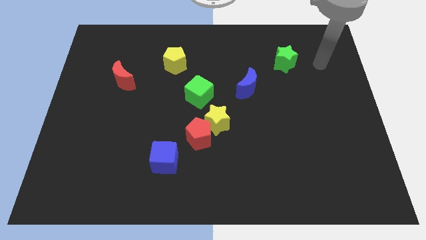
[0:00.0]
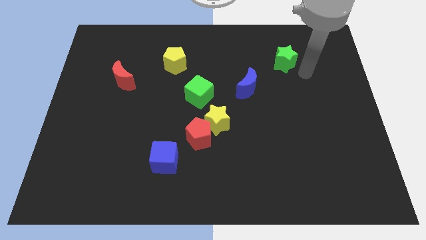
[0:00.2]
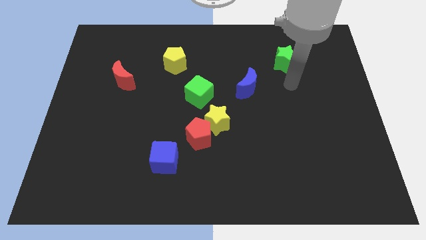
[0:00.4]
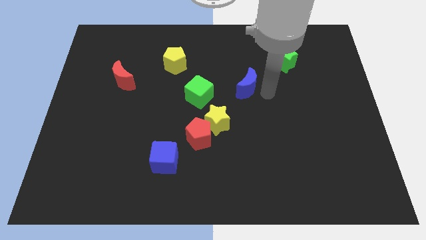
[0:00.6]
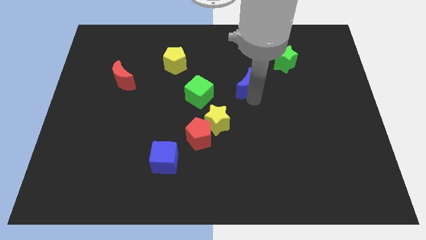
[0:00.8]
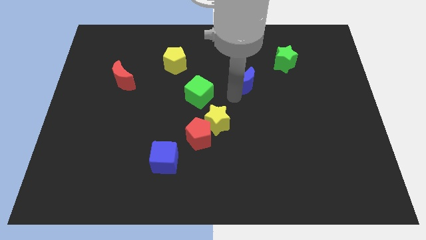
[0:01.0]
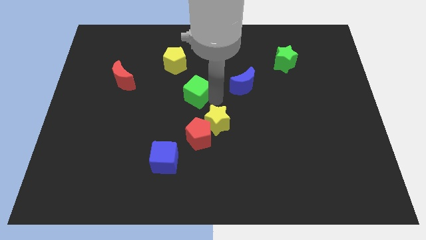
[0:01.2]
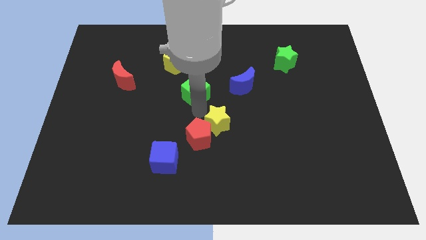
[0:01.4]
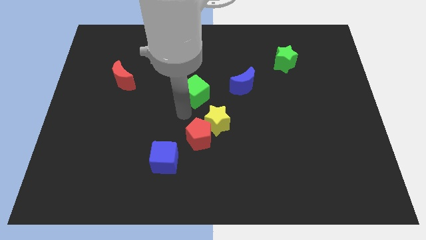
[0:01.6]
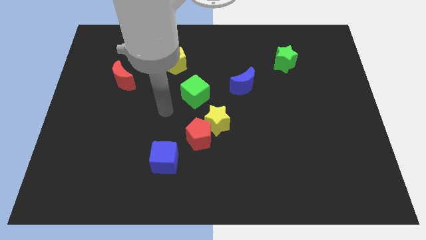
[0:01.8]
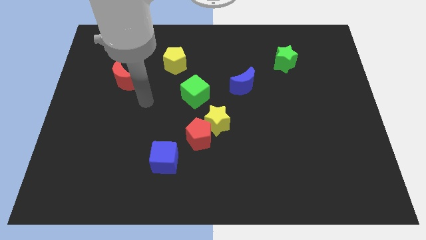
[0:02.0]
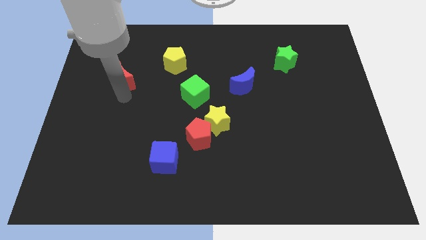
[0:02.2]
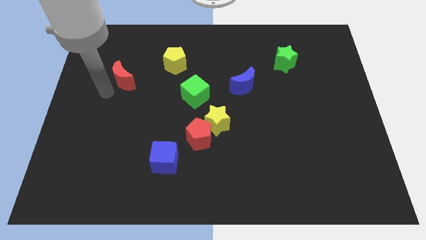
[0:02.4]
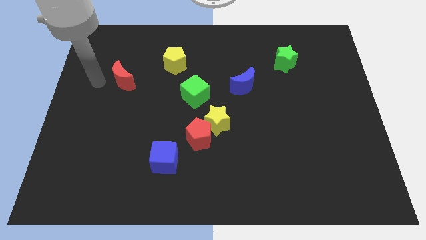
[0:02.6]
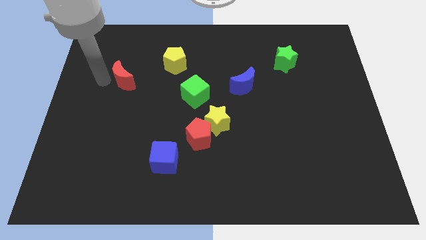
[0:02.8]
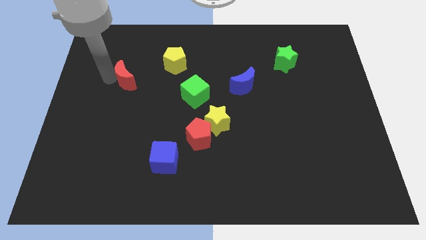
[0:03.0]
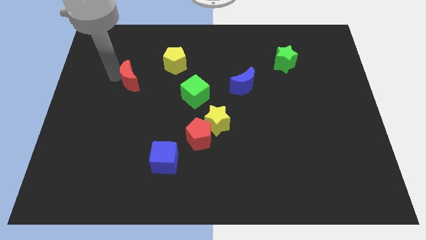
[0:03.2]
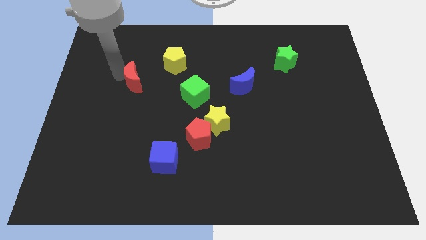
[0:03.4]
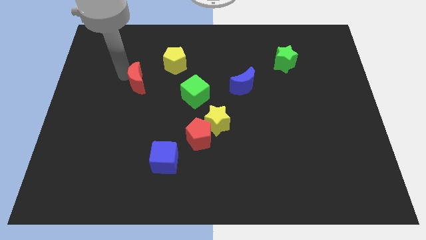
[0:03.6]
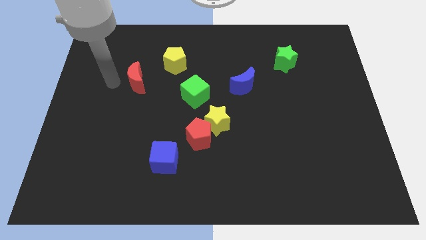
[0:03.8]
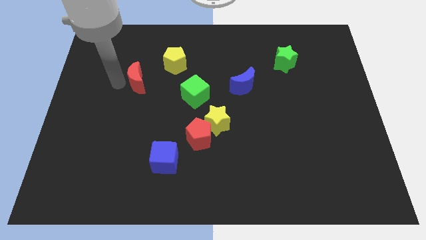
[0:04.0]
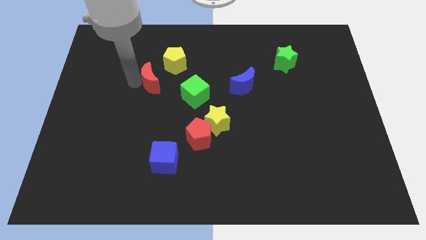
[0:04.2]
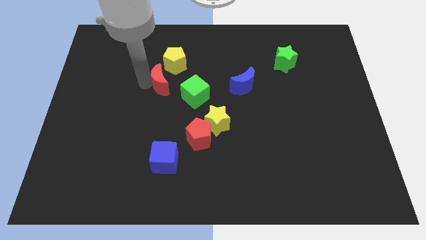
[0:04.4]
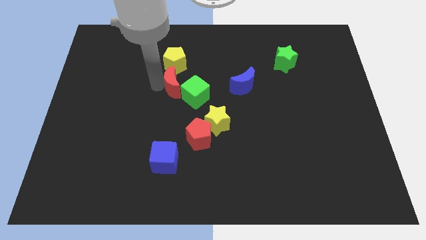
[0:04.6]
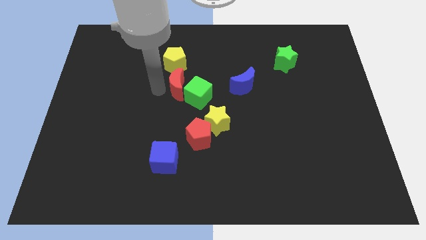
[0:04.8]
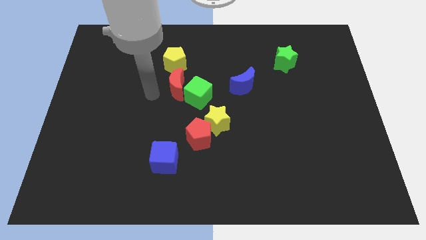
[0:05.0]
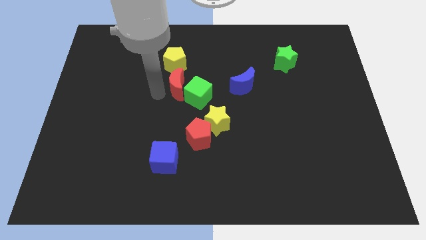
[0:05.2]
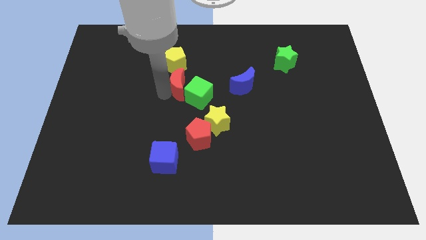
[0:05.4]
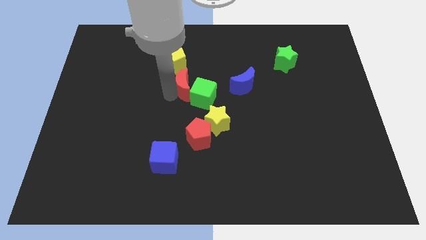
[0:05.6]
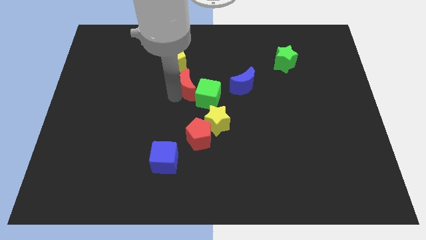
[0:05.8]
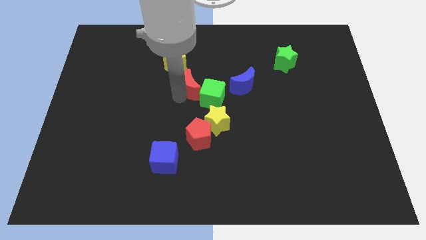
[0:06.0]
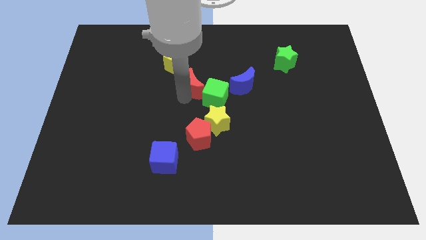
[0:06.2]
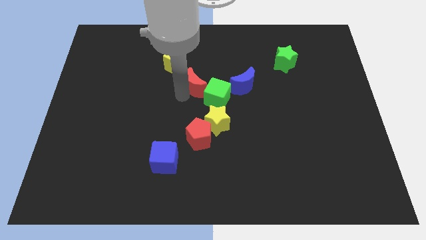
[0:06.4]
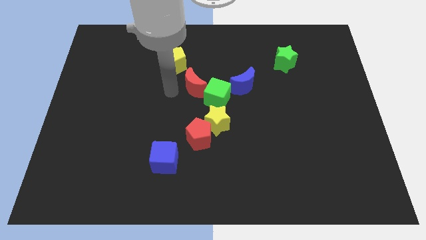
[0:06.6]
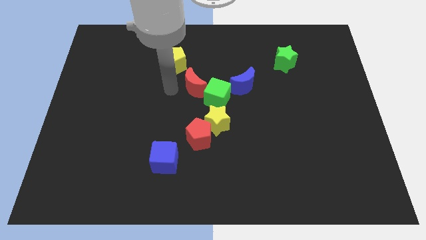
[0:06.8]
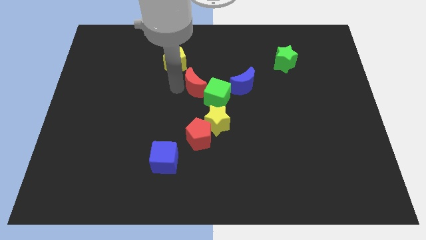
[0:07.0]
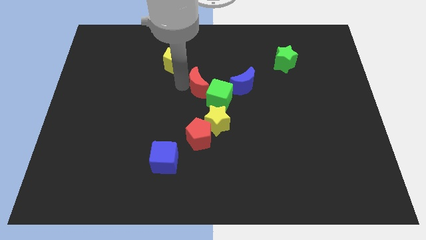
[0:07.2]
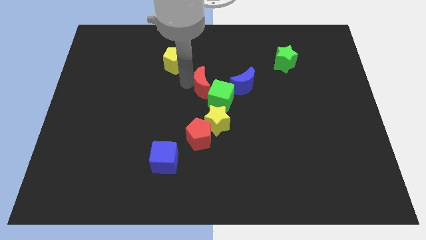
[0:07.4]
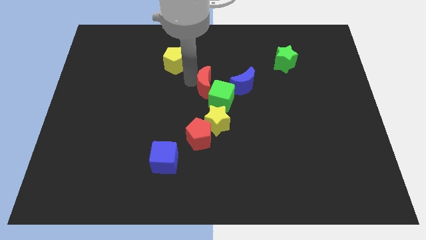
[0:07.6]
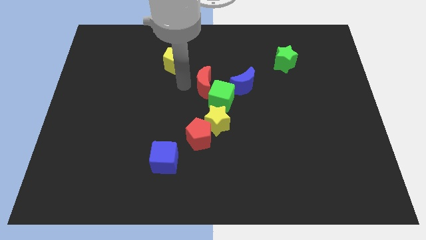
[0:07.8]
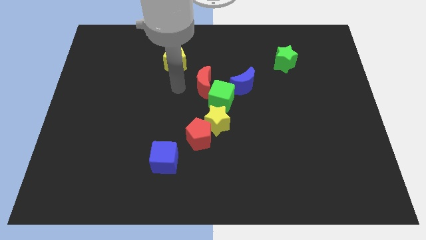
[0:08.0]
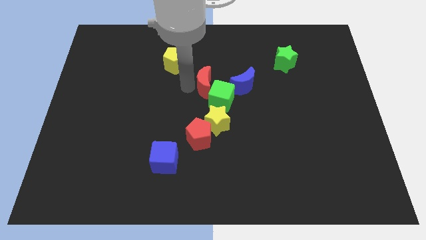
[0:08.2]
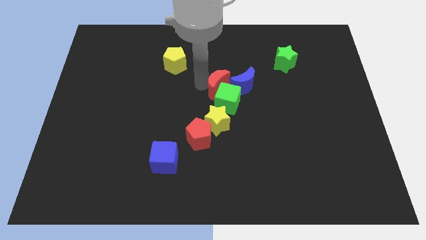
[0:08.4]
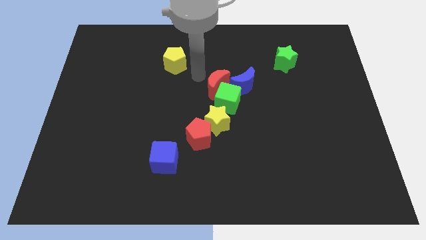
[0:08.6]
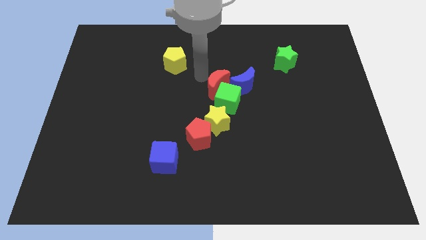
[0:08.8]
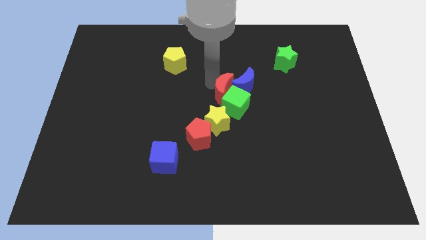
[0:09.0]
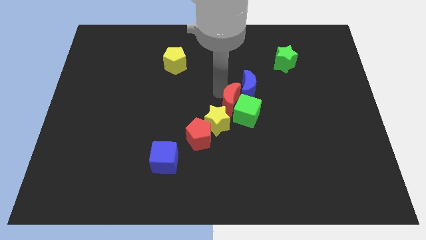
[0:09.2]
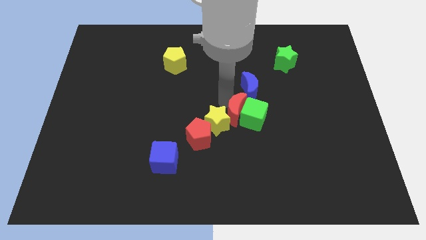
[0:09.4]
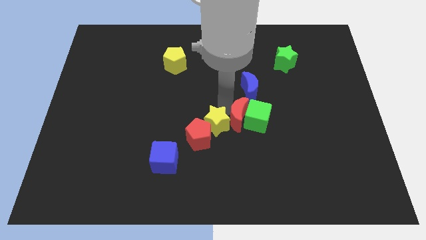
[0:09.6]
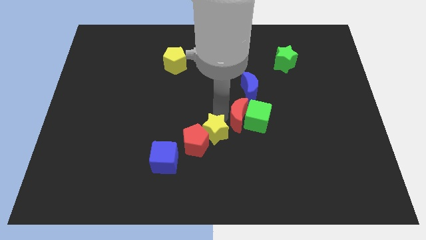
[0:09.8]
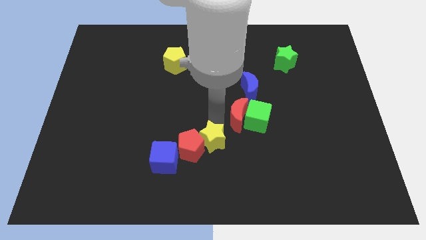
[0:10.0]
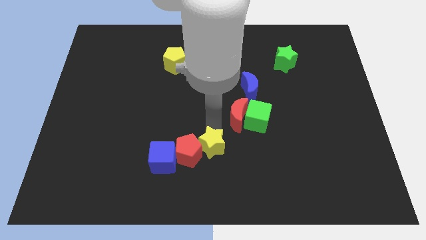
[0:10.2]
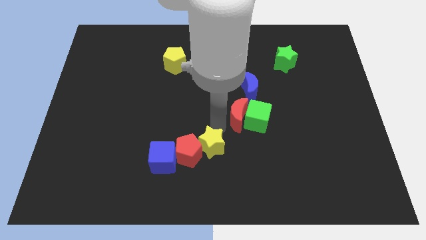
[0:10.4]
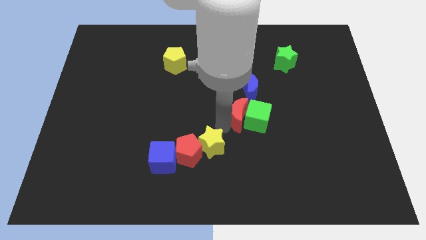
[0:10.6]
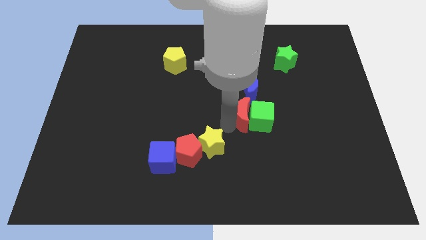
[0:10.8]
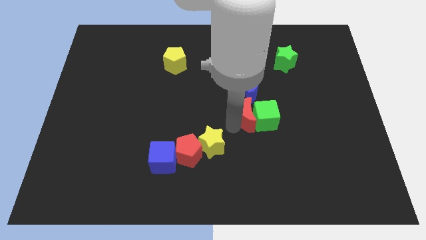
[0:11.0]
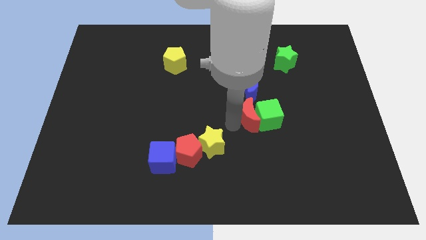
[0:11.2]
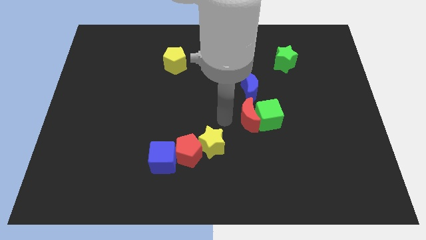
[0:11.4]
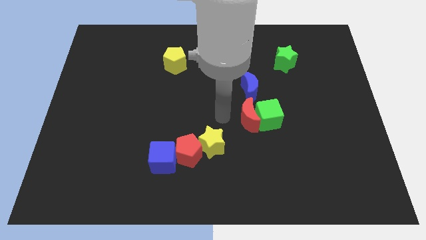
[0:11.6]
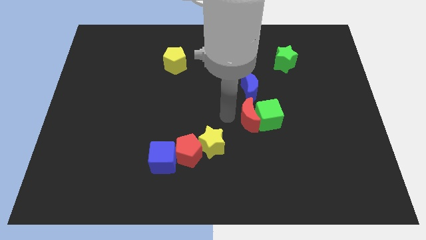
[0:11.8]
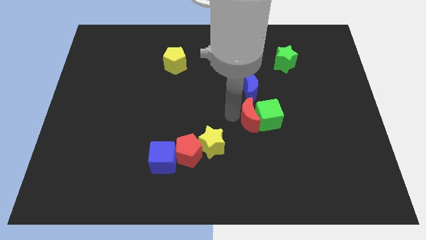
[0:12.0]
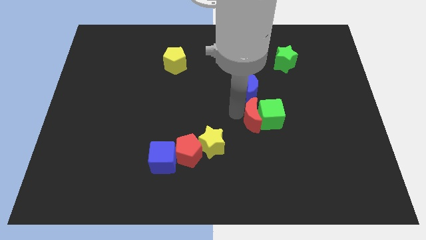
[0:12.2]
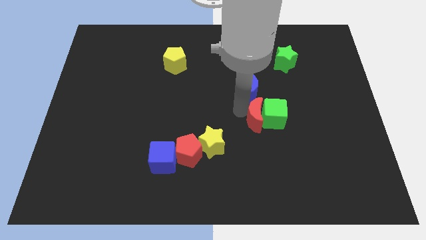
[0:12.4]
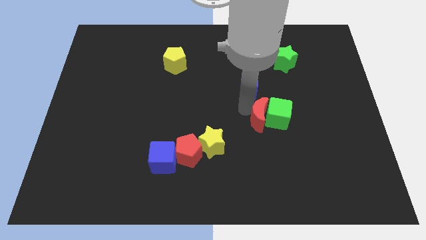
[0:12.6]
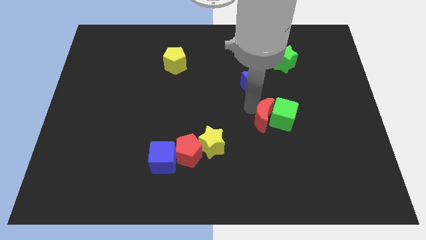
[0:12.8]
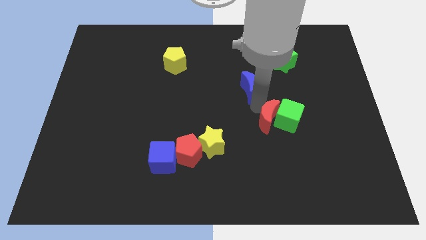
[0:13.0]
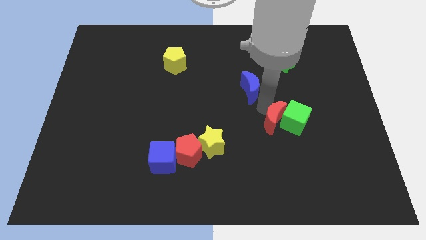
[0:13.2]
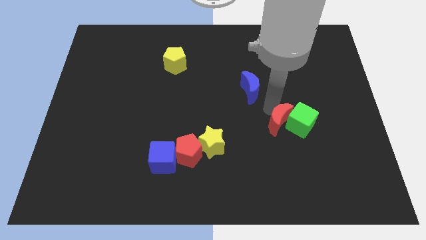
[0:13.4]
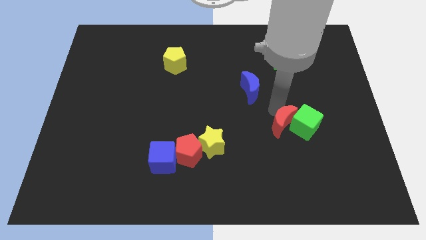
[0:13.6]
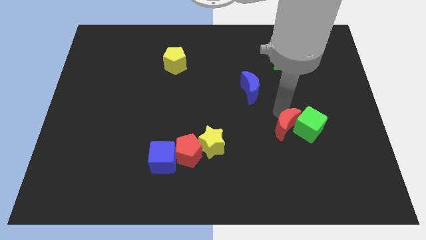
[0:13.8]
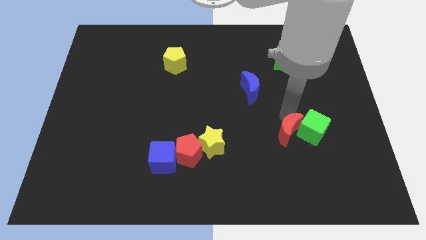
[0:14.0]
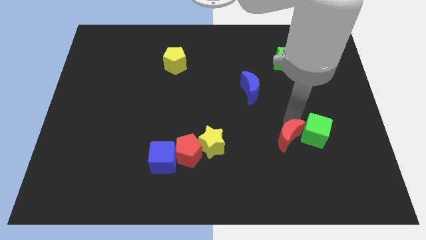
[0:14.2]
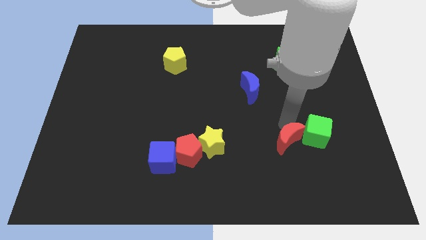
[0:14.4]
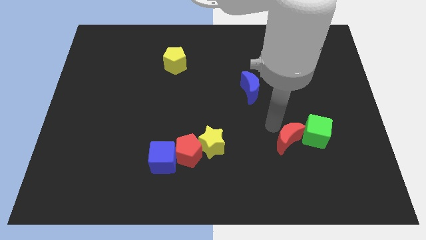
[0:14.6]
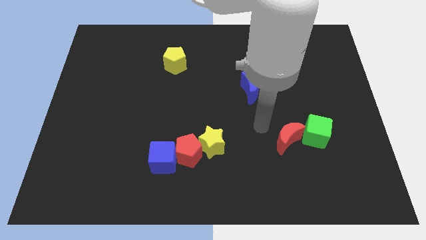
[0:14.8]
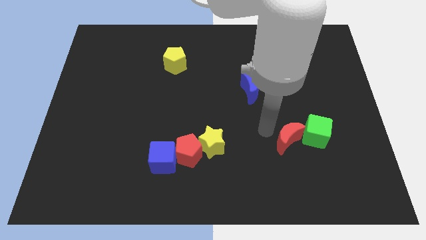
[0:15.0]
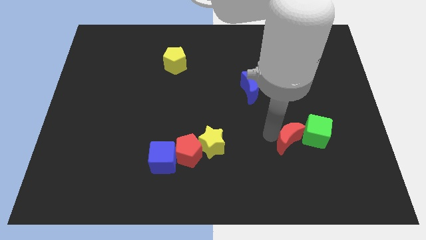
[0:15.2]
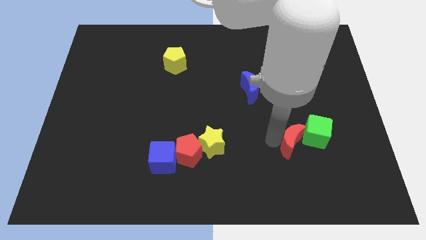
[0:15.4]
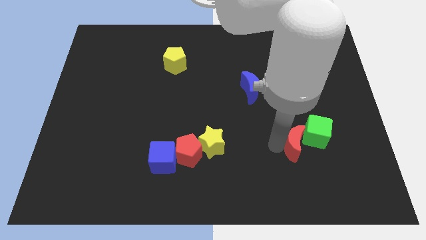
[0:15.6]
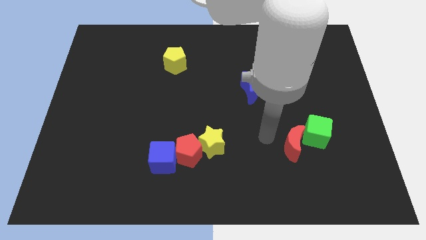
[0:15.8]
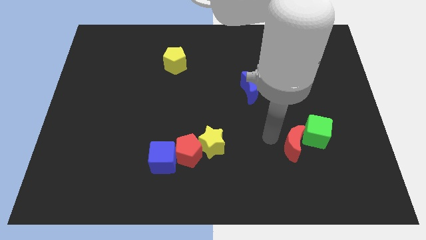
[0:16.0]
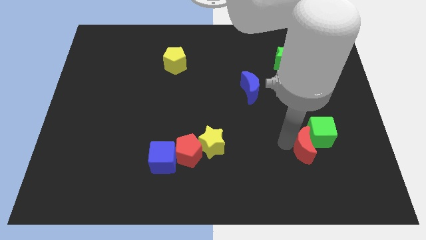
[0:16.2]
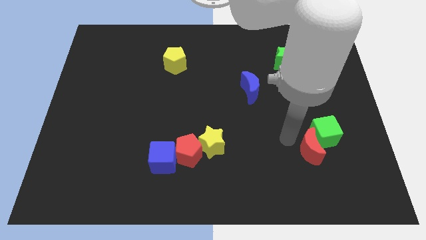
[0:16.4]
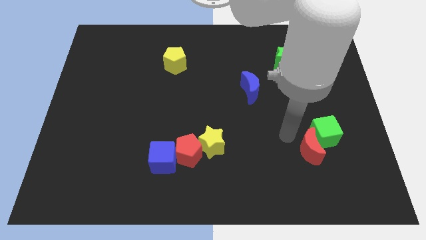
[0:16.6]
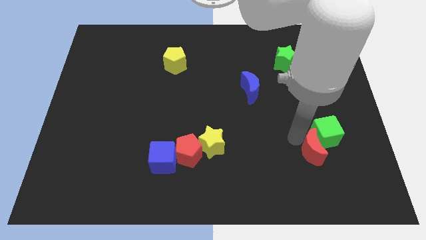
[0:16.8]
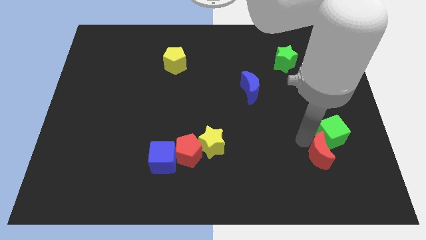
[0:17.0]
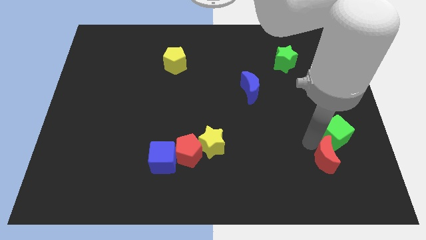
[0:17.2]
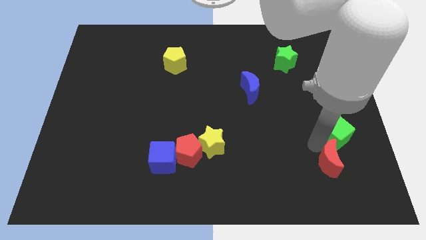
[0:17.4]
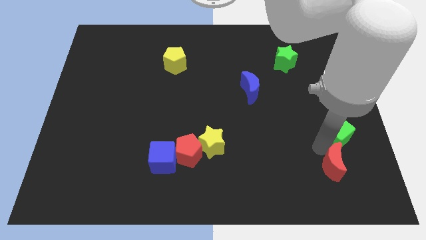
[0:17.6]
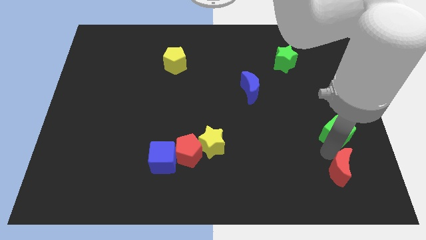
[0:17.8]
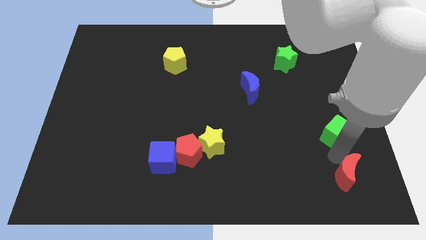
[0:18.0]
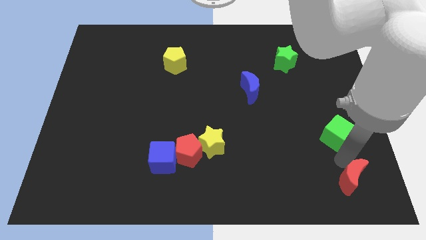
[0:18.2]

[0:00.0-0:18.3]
move the red moon to the bottom right
